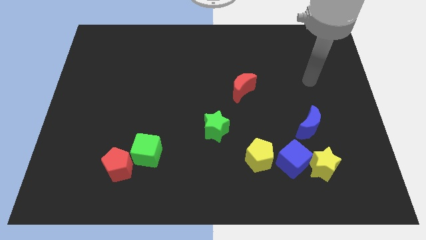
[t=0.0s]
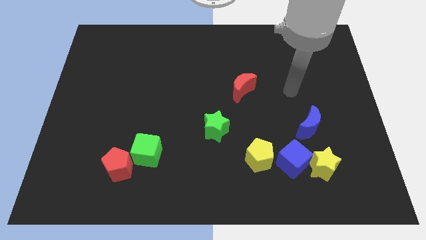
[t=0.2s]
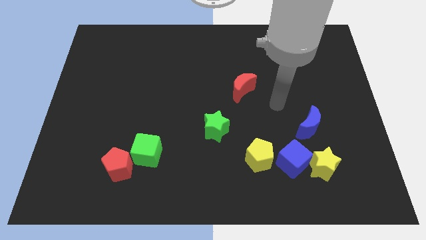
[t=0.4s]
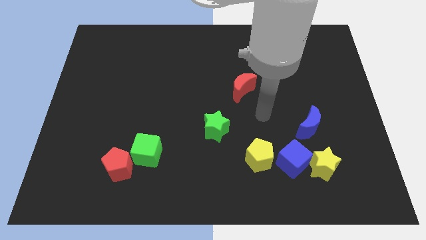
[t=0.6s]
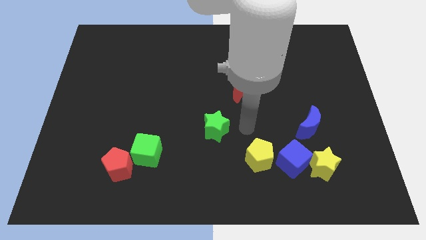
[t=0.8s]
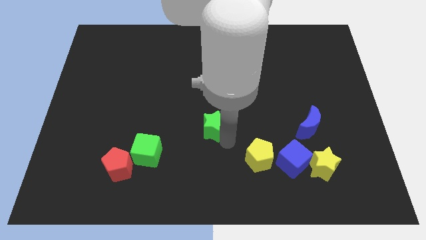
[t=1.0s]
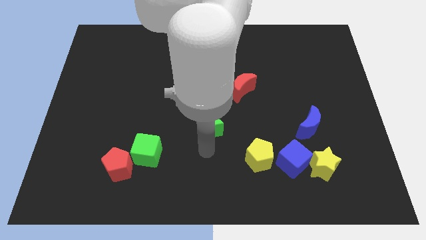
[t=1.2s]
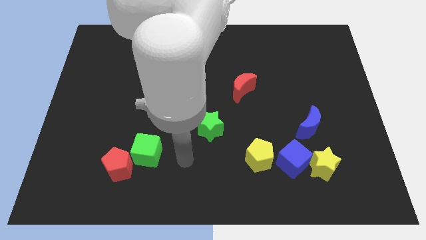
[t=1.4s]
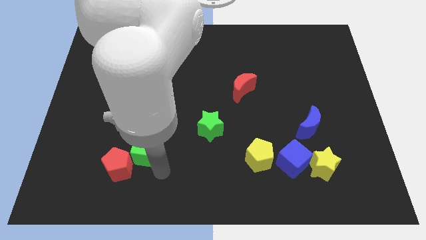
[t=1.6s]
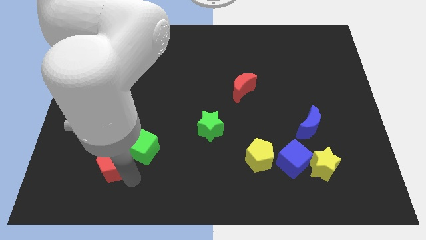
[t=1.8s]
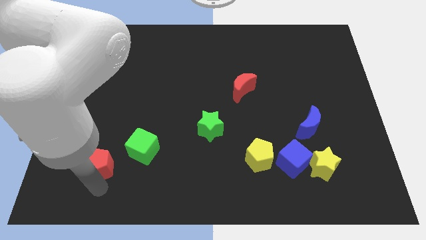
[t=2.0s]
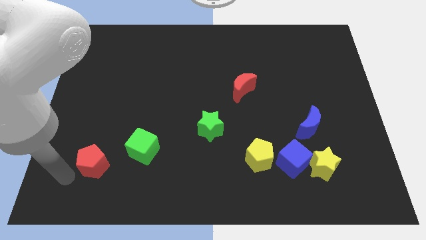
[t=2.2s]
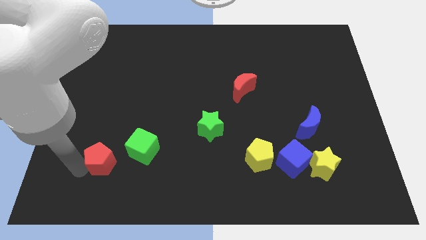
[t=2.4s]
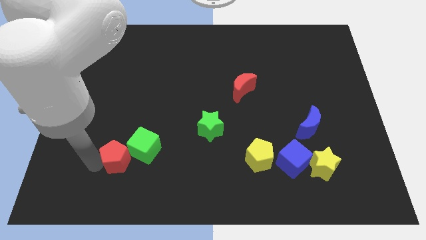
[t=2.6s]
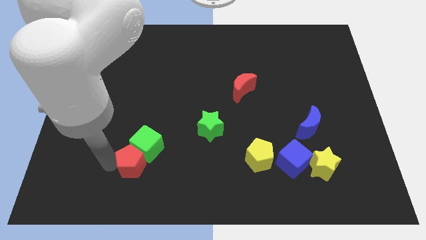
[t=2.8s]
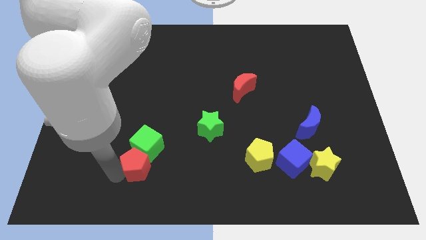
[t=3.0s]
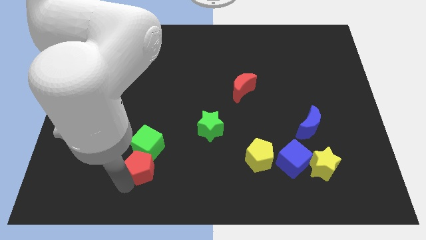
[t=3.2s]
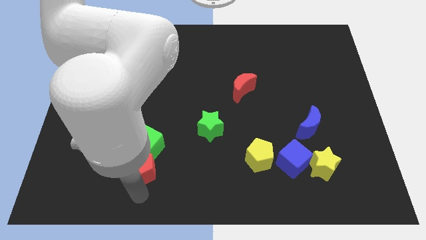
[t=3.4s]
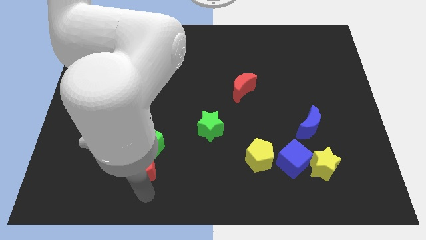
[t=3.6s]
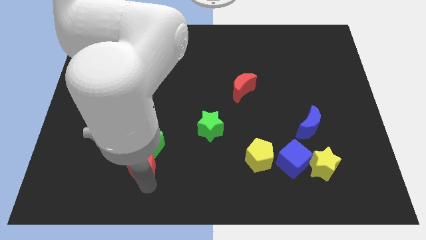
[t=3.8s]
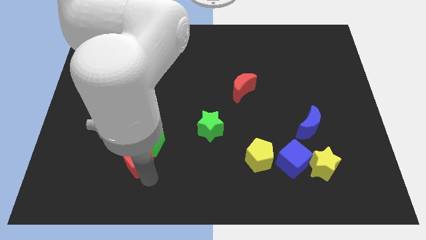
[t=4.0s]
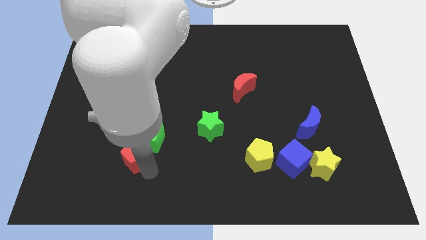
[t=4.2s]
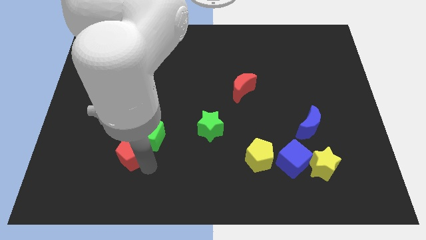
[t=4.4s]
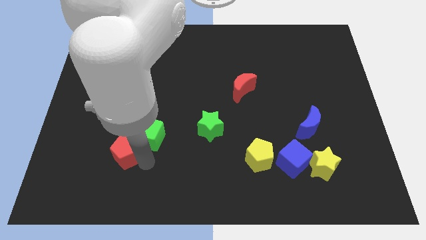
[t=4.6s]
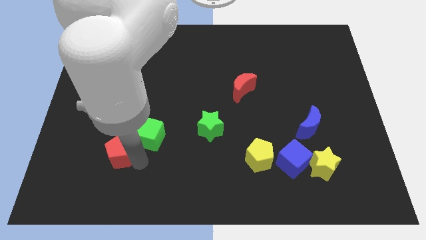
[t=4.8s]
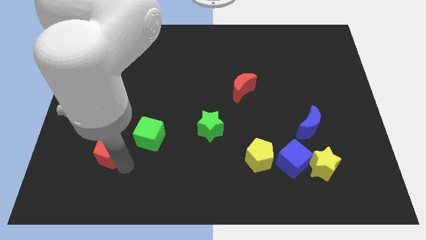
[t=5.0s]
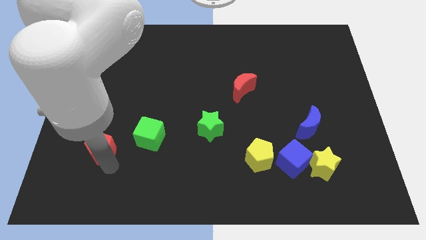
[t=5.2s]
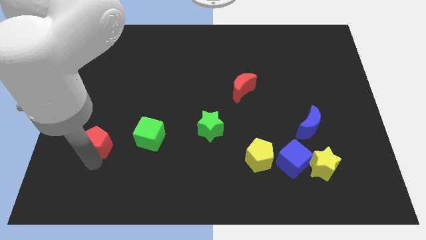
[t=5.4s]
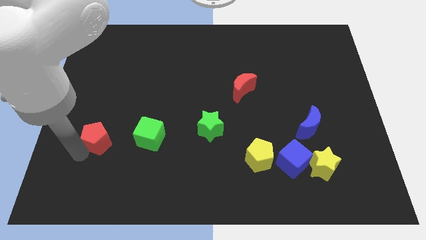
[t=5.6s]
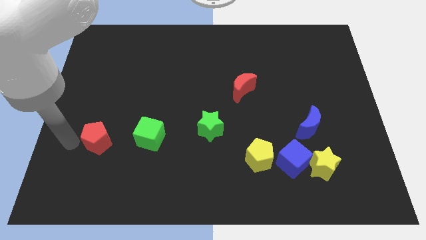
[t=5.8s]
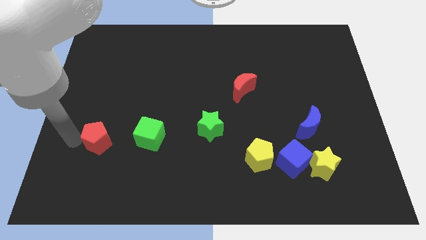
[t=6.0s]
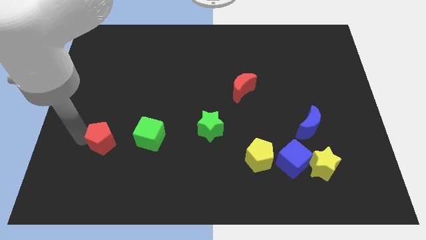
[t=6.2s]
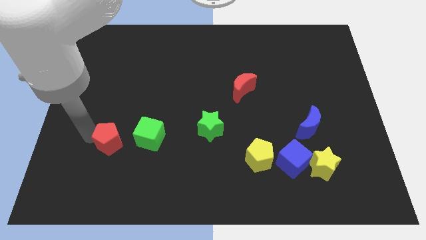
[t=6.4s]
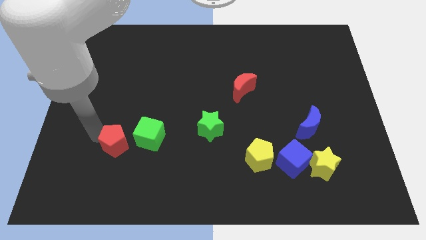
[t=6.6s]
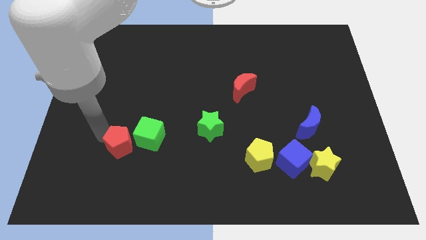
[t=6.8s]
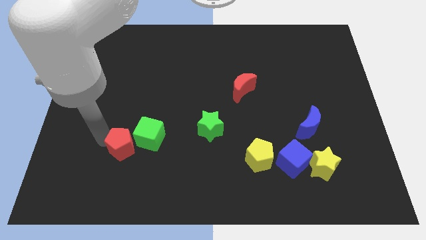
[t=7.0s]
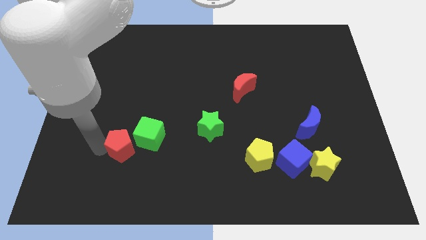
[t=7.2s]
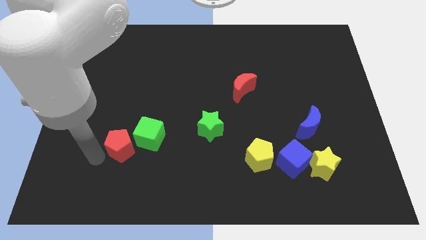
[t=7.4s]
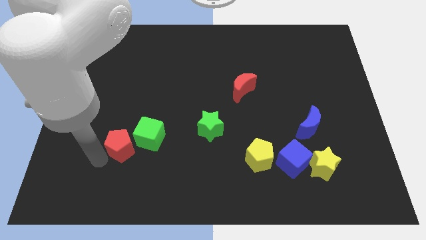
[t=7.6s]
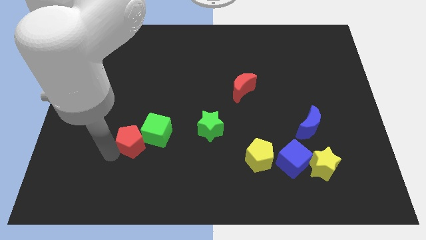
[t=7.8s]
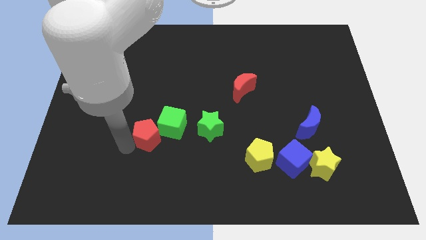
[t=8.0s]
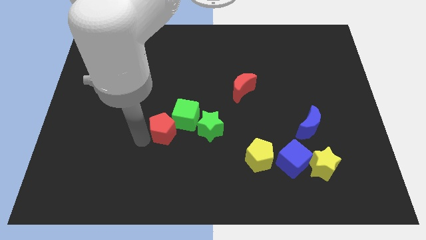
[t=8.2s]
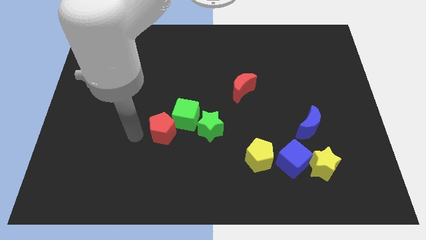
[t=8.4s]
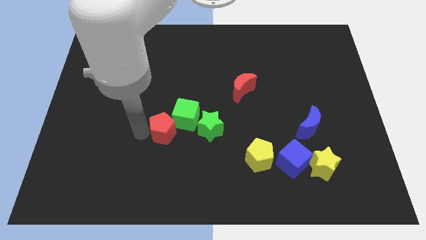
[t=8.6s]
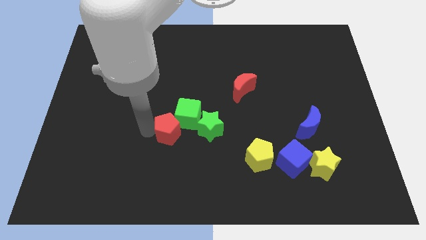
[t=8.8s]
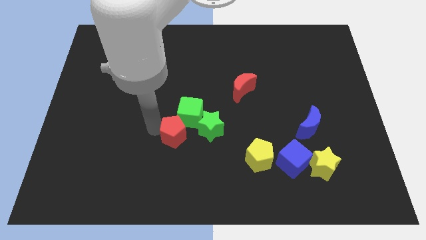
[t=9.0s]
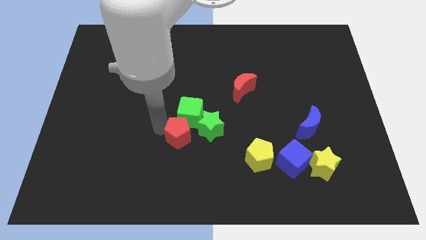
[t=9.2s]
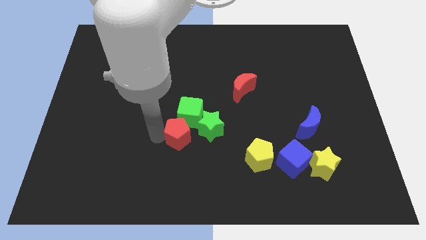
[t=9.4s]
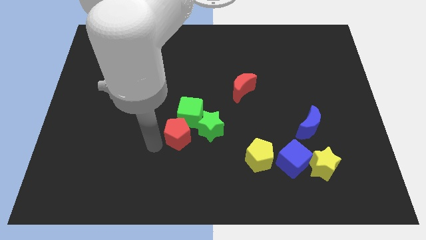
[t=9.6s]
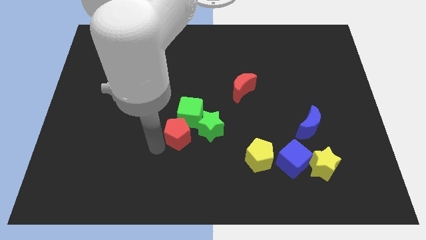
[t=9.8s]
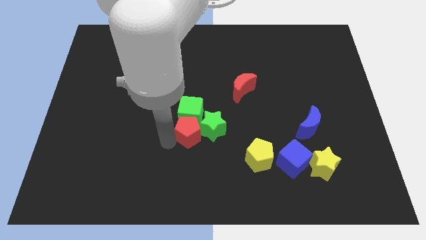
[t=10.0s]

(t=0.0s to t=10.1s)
put the red pentagon towards the green star

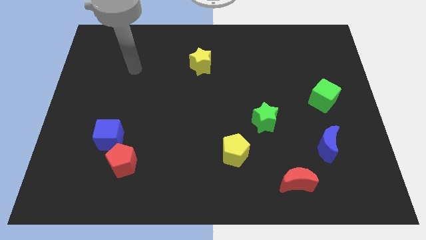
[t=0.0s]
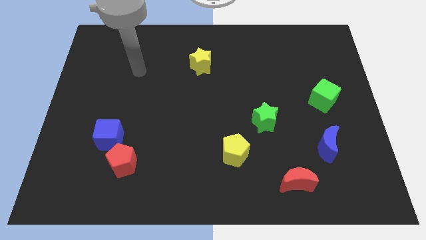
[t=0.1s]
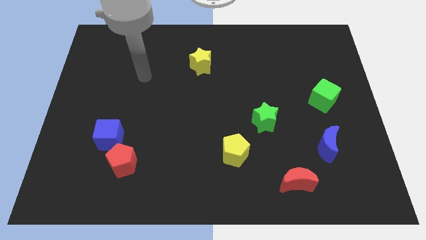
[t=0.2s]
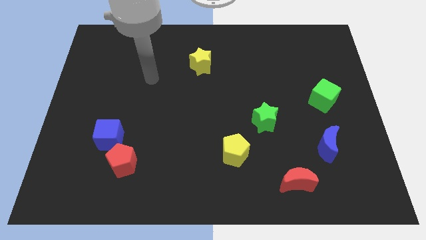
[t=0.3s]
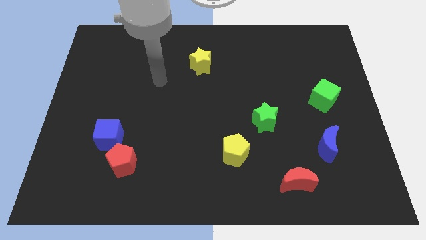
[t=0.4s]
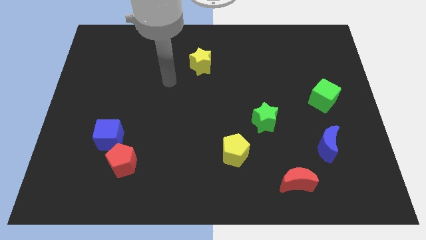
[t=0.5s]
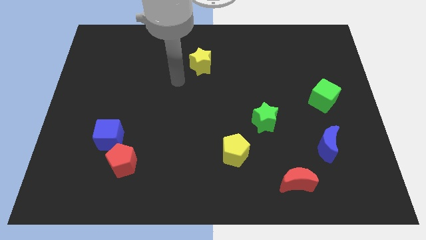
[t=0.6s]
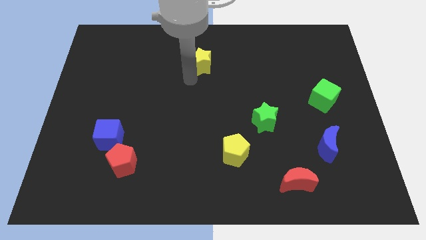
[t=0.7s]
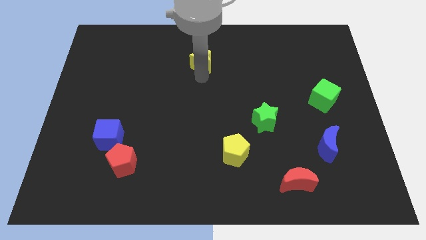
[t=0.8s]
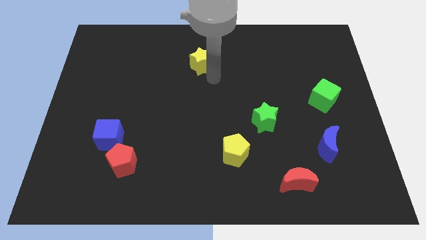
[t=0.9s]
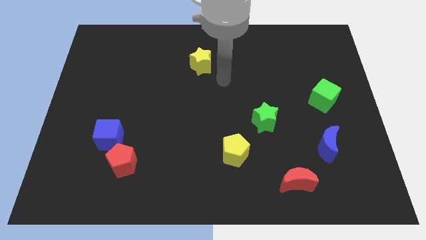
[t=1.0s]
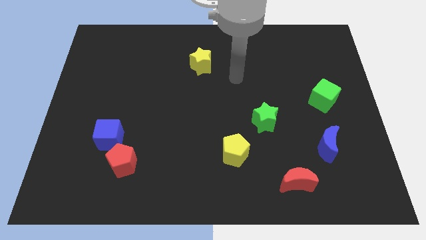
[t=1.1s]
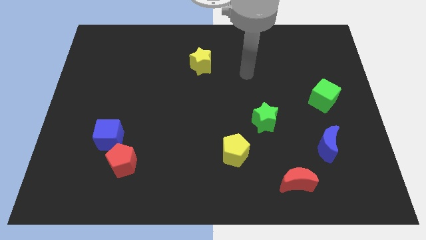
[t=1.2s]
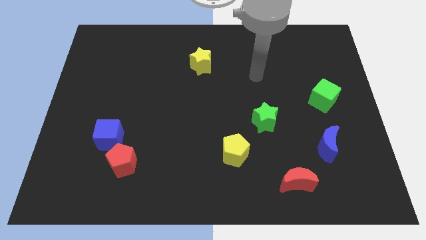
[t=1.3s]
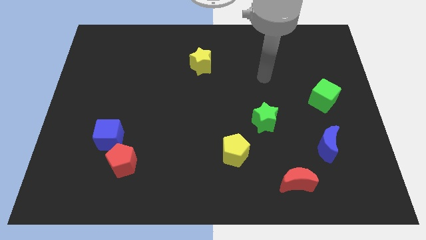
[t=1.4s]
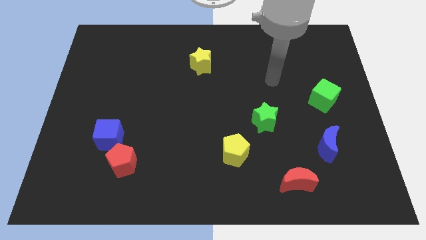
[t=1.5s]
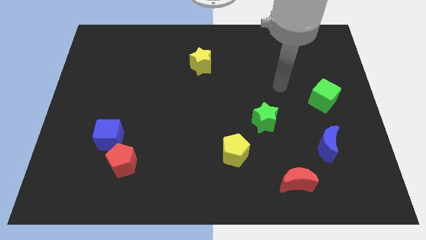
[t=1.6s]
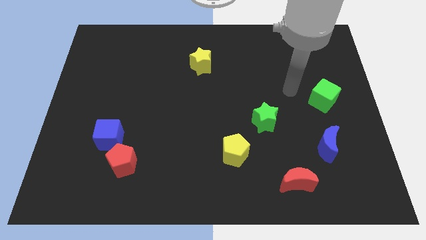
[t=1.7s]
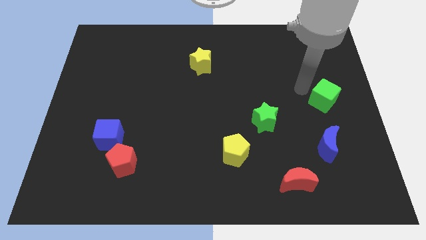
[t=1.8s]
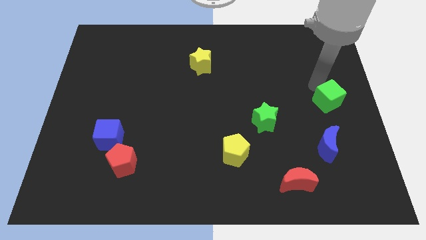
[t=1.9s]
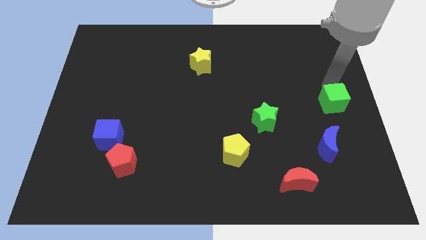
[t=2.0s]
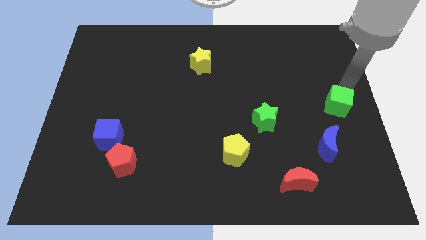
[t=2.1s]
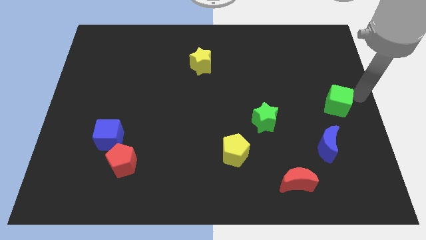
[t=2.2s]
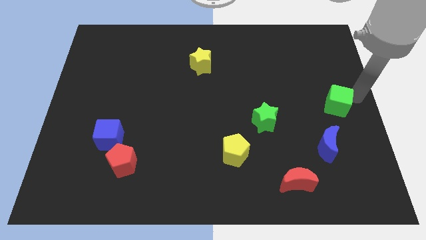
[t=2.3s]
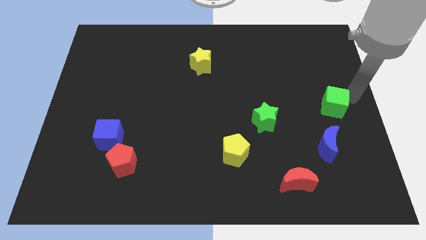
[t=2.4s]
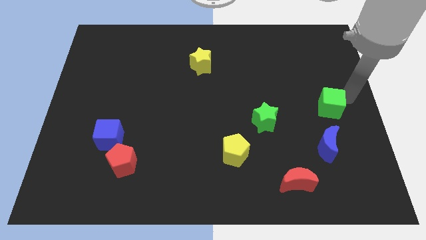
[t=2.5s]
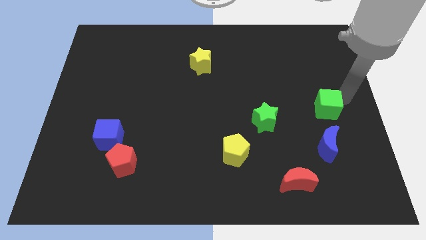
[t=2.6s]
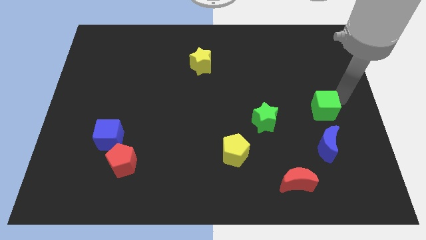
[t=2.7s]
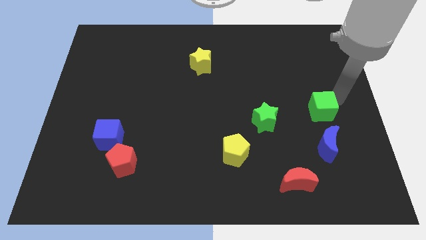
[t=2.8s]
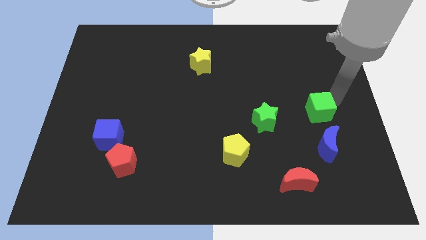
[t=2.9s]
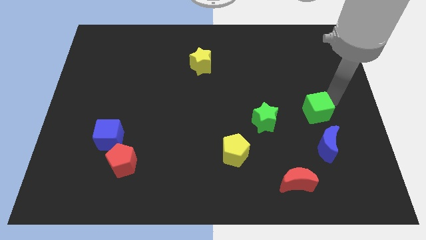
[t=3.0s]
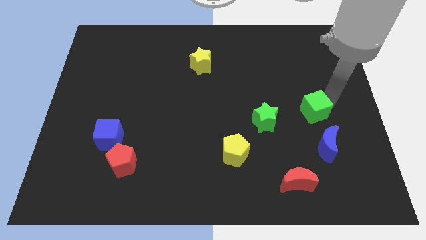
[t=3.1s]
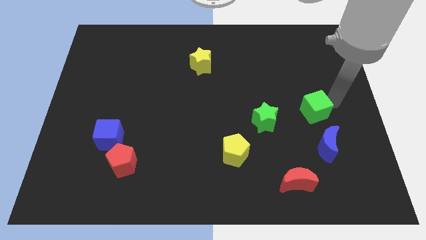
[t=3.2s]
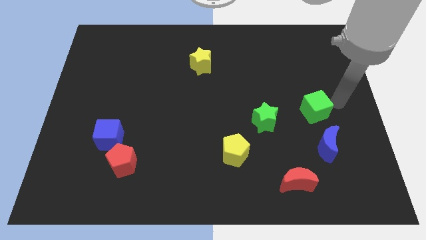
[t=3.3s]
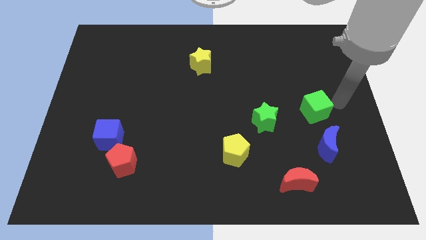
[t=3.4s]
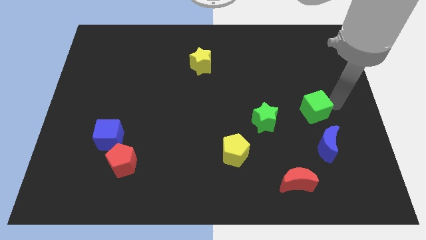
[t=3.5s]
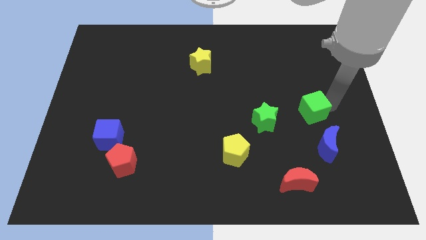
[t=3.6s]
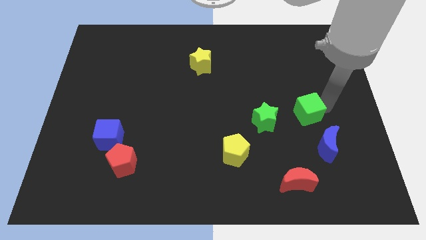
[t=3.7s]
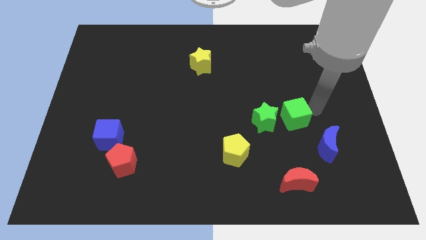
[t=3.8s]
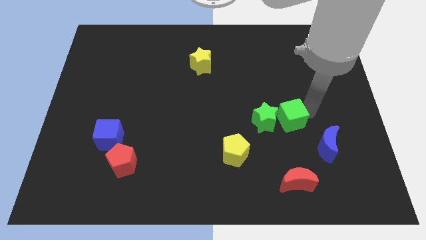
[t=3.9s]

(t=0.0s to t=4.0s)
push the green cube next to the green star
